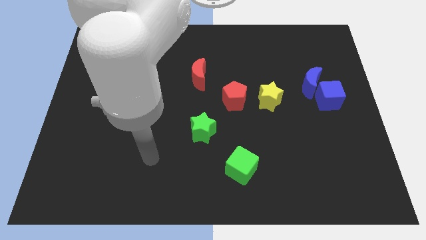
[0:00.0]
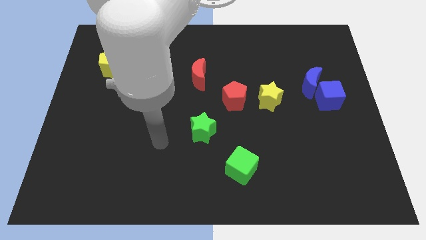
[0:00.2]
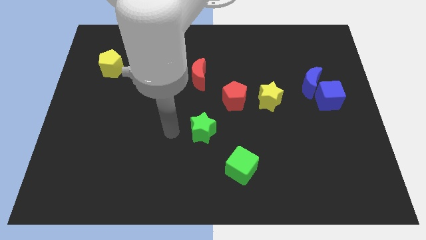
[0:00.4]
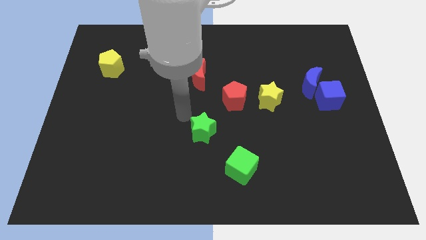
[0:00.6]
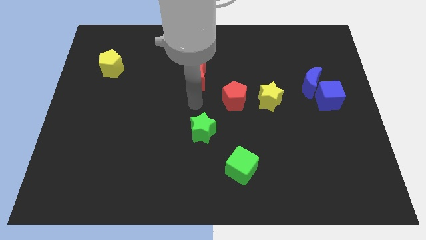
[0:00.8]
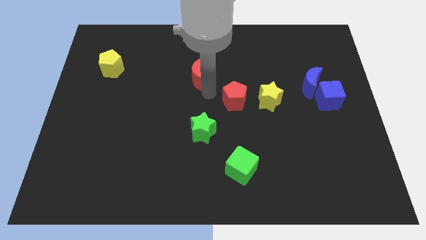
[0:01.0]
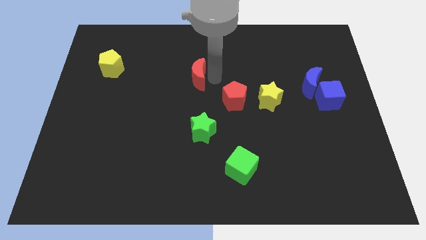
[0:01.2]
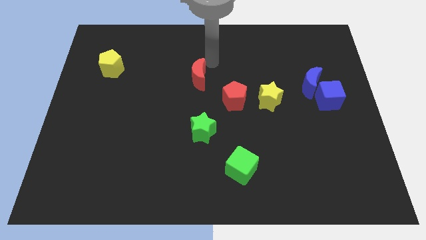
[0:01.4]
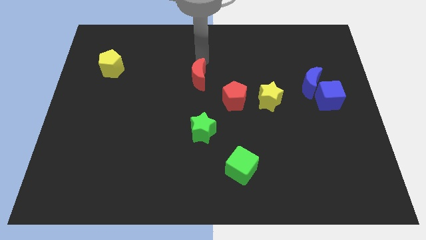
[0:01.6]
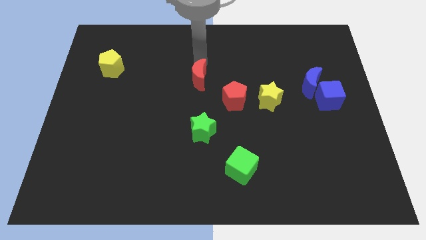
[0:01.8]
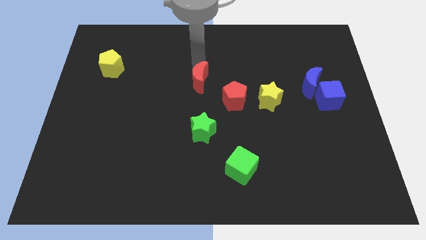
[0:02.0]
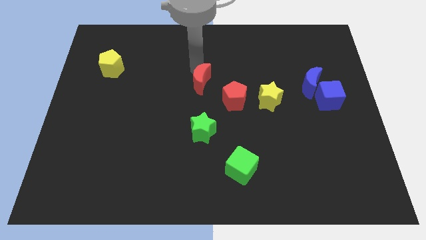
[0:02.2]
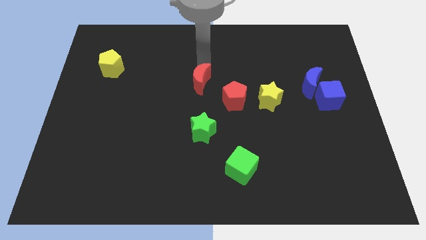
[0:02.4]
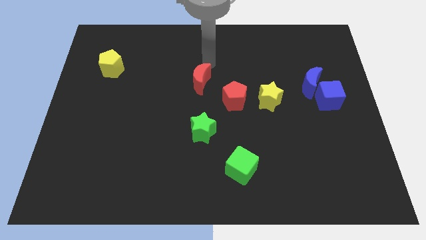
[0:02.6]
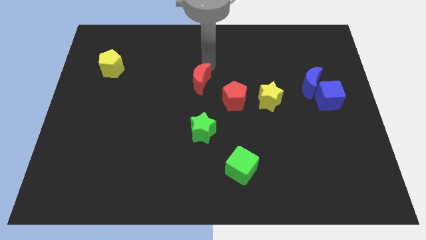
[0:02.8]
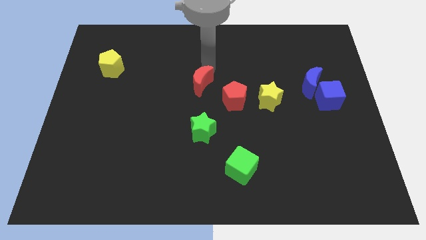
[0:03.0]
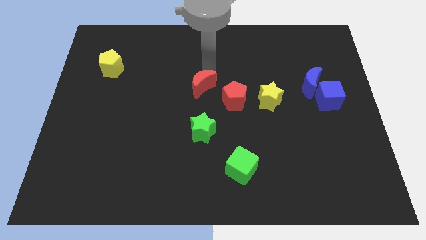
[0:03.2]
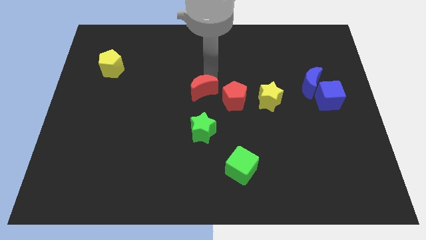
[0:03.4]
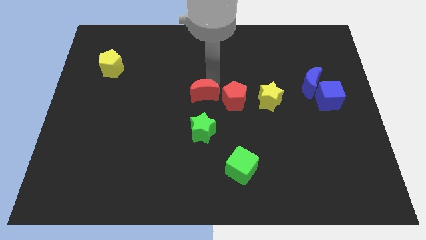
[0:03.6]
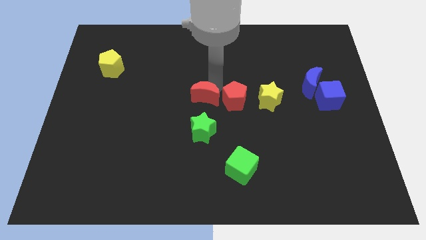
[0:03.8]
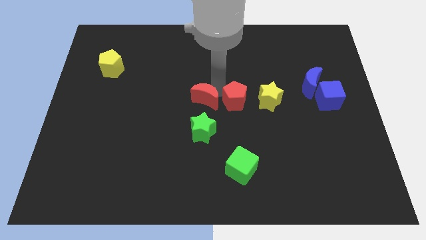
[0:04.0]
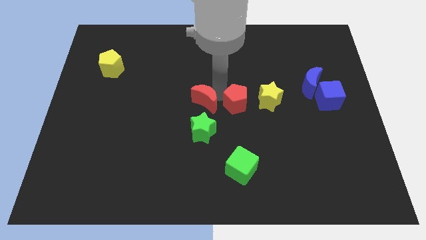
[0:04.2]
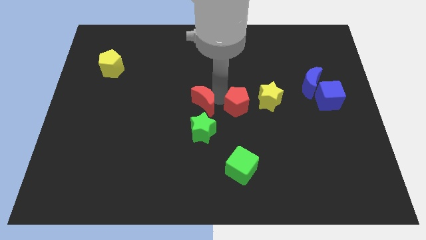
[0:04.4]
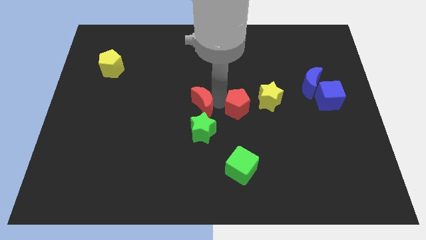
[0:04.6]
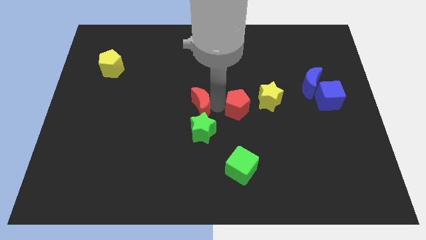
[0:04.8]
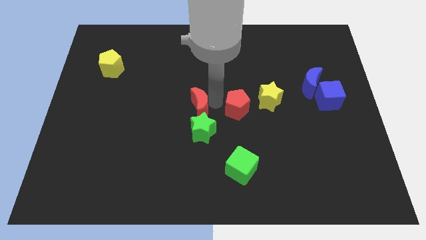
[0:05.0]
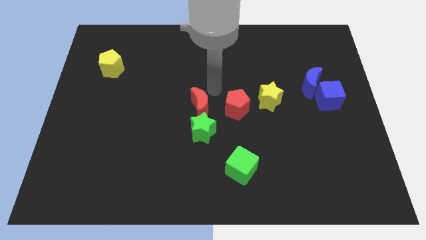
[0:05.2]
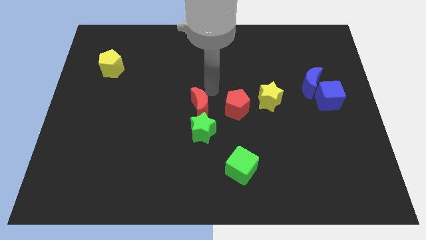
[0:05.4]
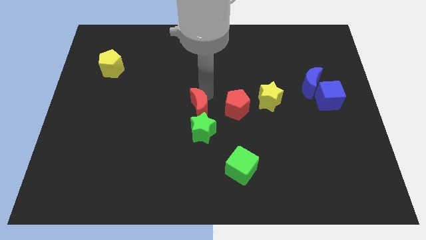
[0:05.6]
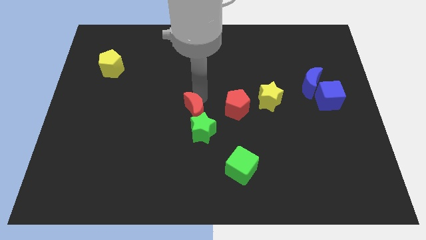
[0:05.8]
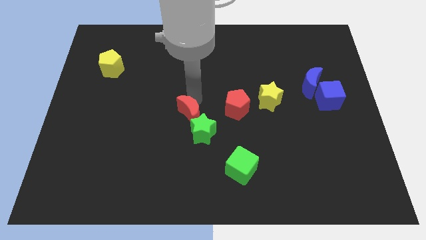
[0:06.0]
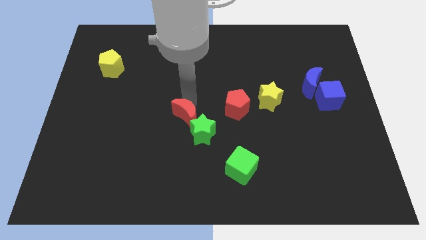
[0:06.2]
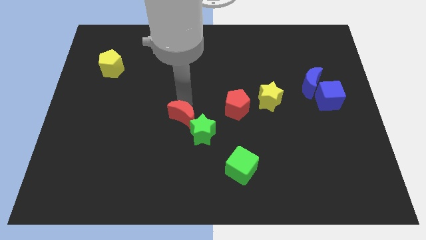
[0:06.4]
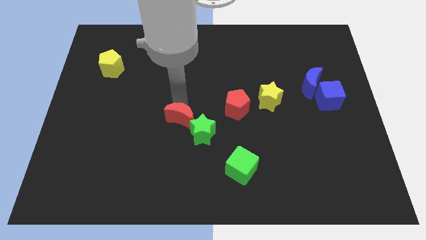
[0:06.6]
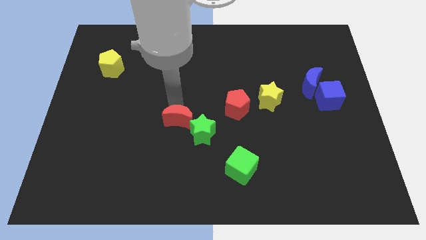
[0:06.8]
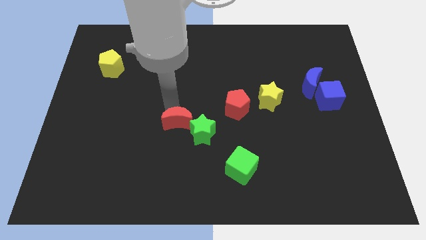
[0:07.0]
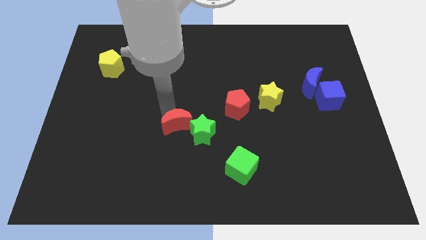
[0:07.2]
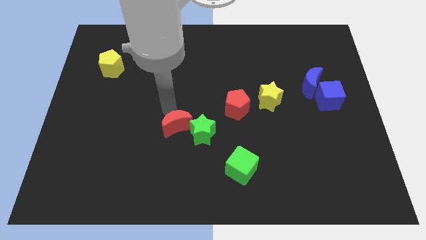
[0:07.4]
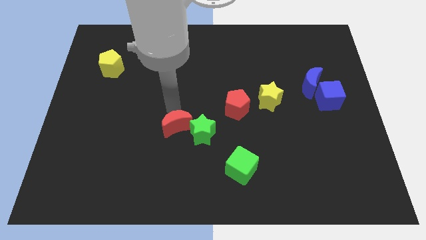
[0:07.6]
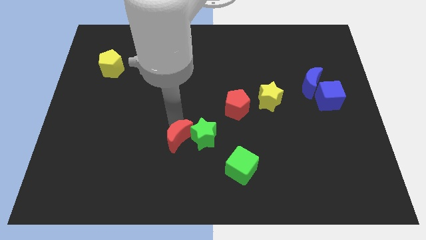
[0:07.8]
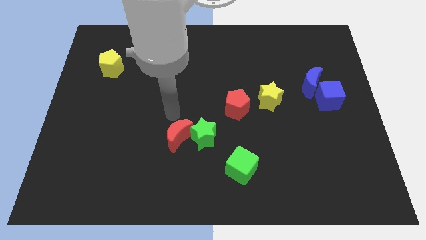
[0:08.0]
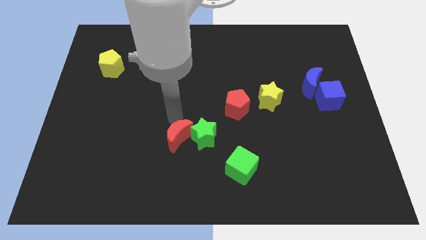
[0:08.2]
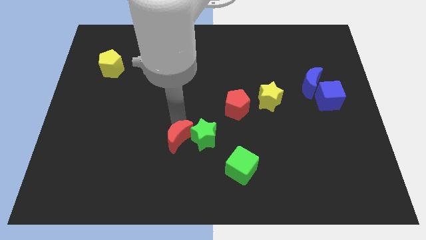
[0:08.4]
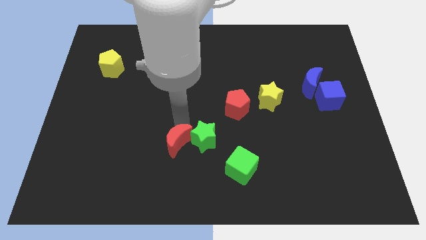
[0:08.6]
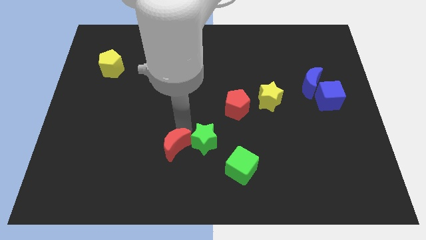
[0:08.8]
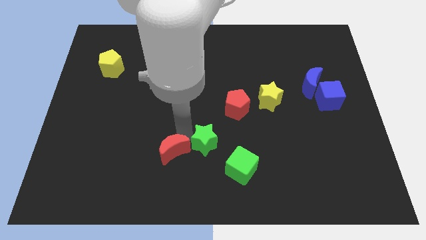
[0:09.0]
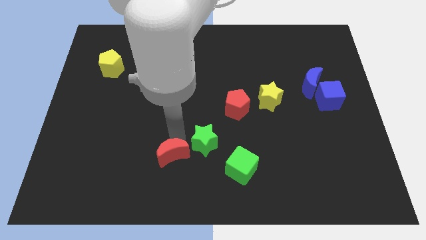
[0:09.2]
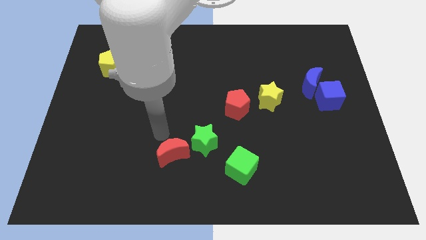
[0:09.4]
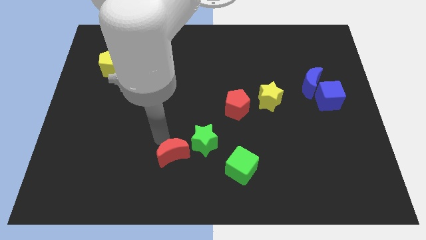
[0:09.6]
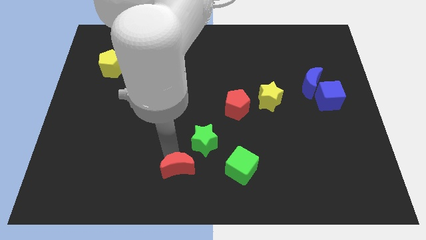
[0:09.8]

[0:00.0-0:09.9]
push the red moon to the bottom side

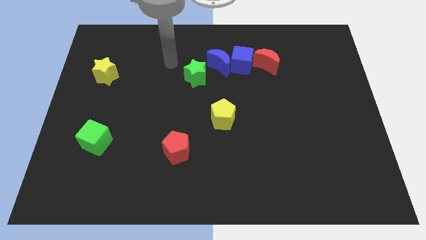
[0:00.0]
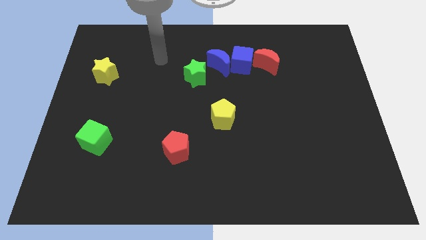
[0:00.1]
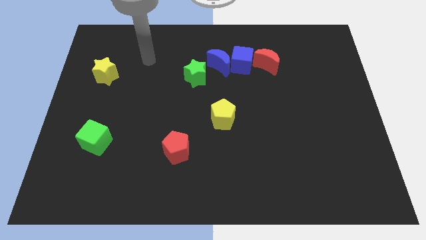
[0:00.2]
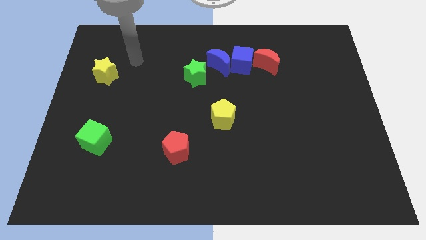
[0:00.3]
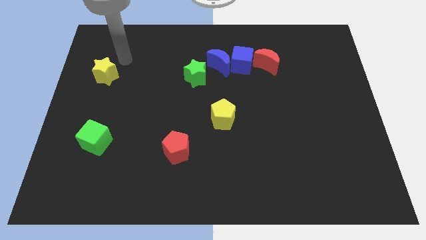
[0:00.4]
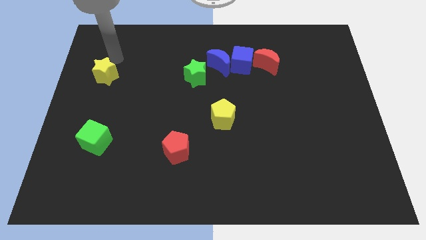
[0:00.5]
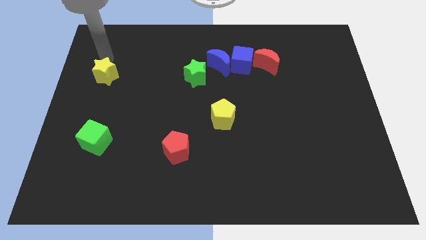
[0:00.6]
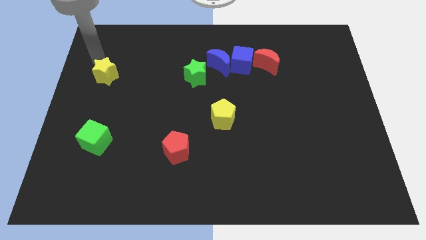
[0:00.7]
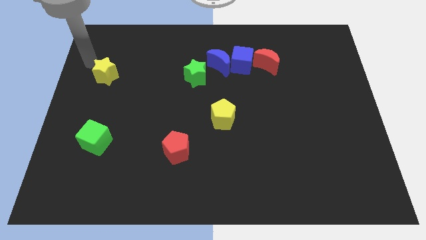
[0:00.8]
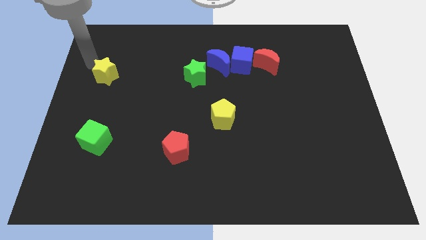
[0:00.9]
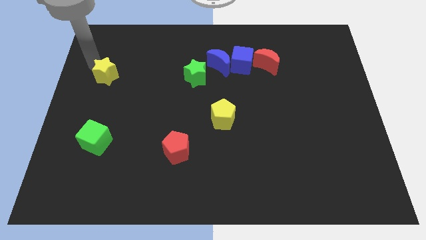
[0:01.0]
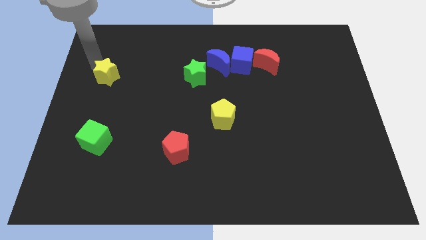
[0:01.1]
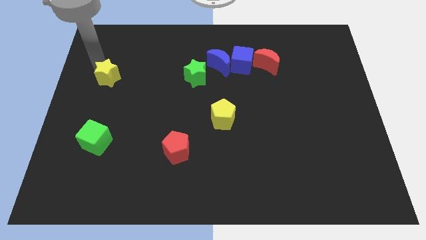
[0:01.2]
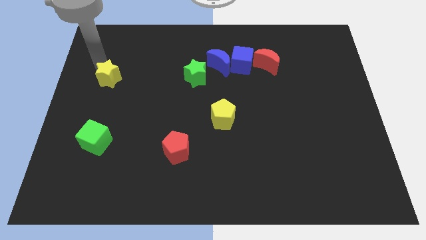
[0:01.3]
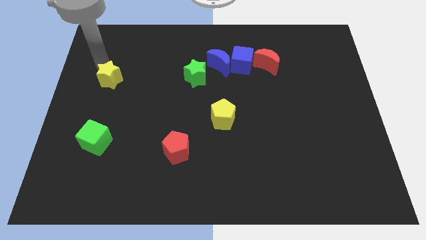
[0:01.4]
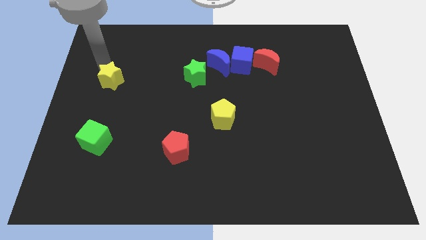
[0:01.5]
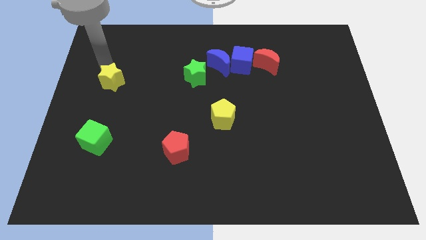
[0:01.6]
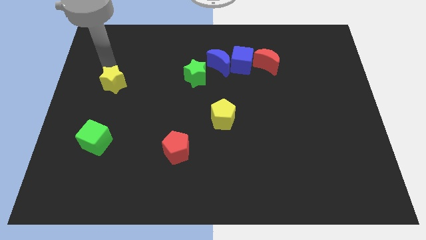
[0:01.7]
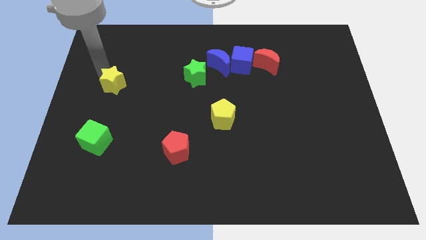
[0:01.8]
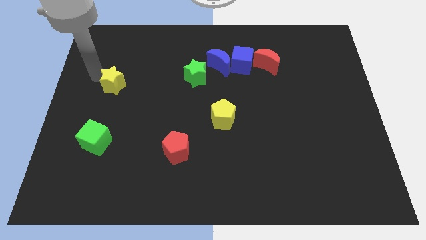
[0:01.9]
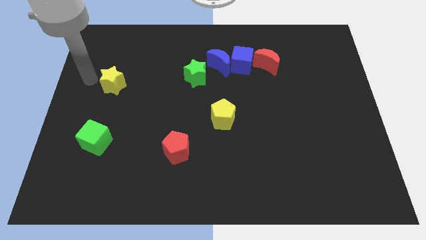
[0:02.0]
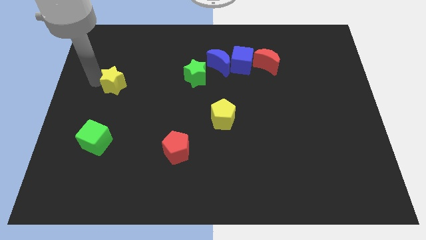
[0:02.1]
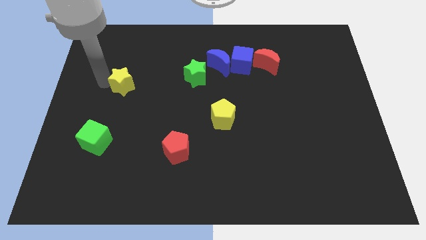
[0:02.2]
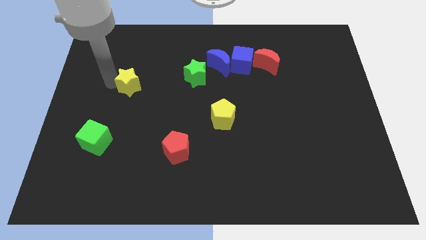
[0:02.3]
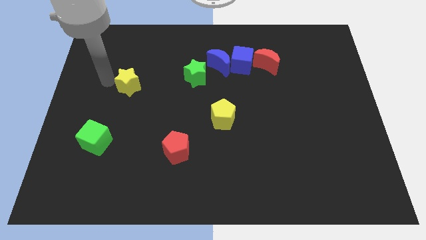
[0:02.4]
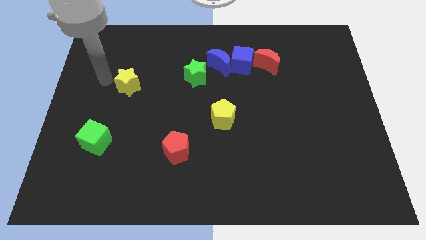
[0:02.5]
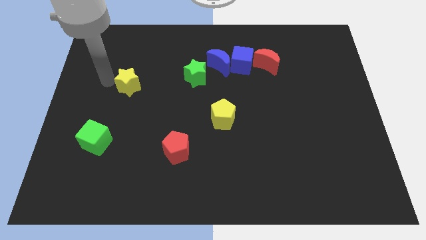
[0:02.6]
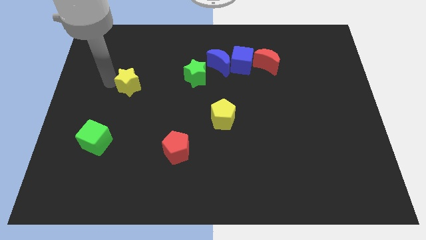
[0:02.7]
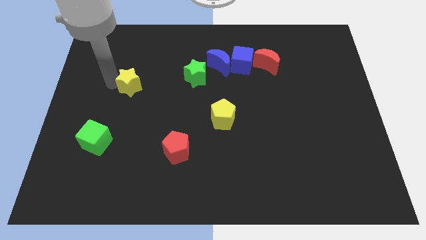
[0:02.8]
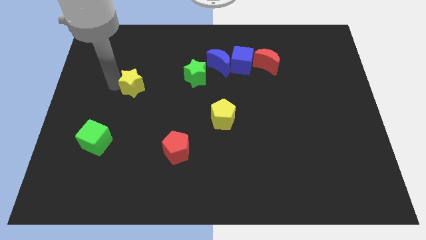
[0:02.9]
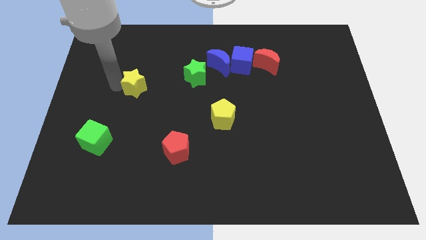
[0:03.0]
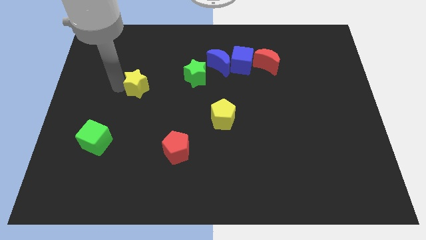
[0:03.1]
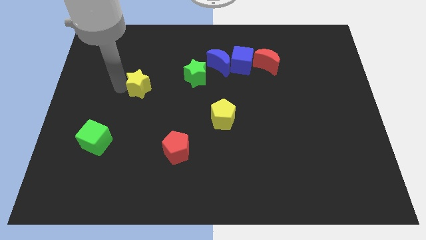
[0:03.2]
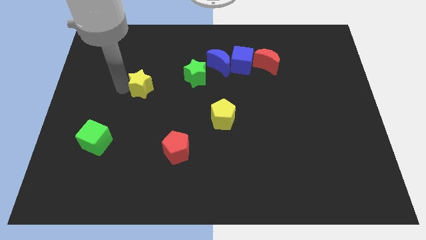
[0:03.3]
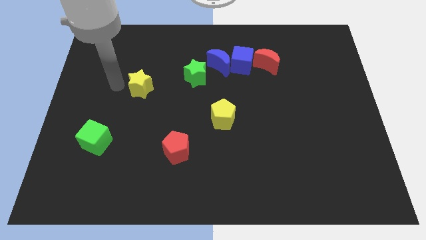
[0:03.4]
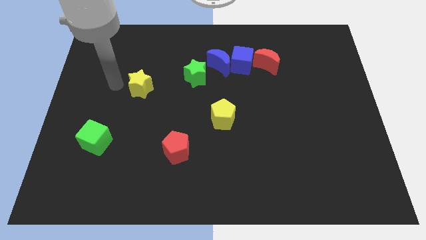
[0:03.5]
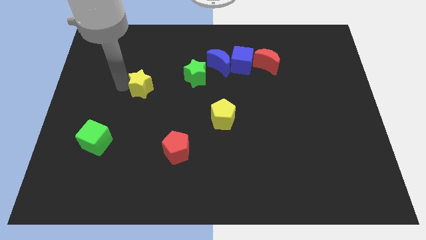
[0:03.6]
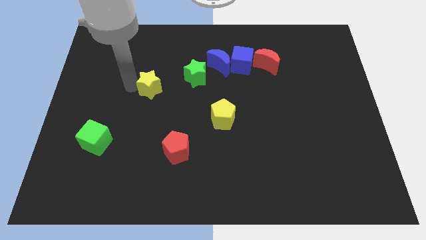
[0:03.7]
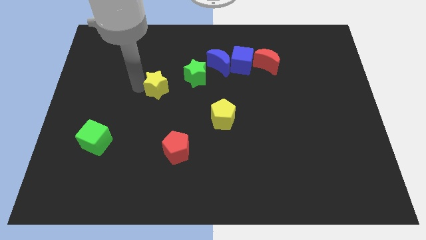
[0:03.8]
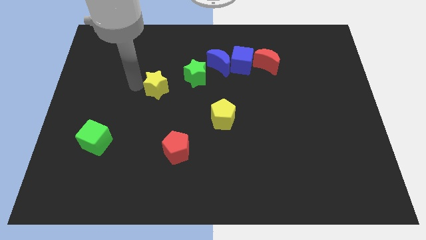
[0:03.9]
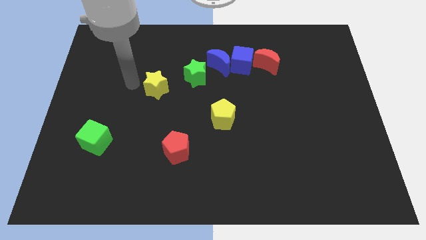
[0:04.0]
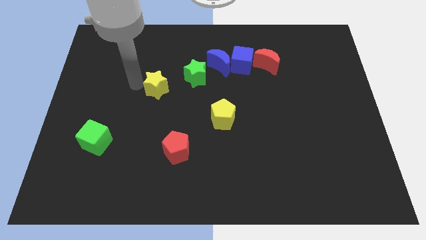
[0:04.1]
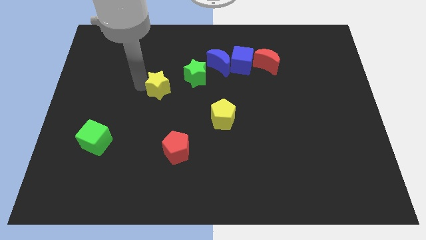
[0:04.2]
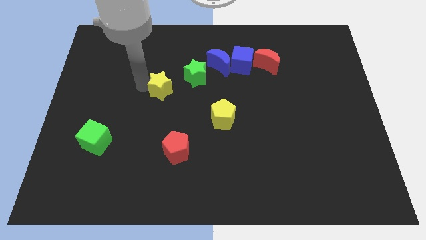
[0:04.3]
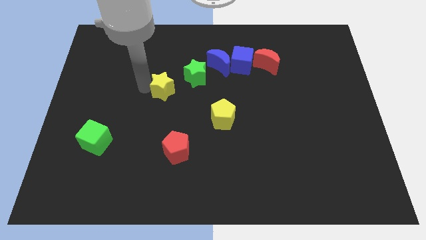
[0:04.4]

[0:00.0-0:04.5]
put the yellow star to the center of the board
